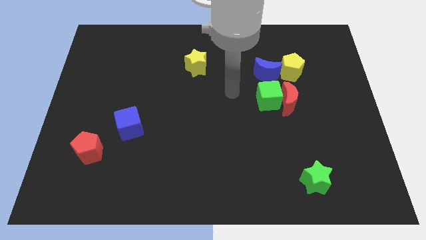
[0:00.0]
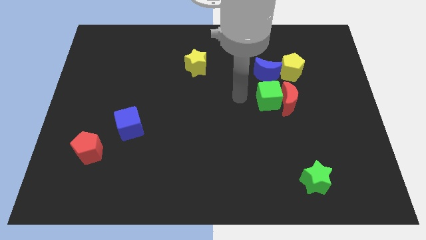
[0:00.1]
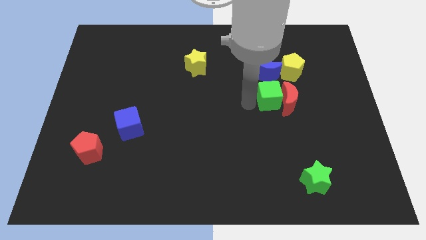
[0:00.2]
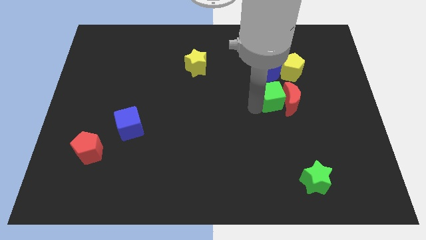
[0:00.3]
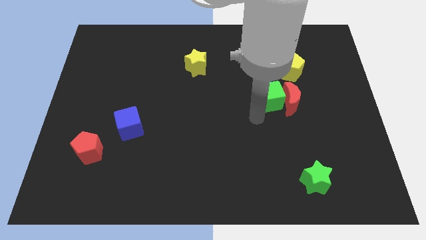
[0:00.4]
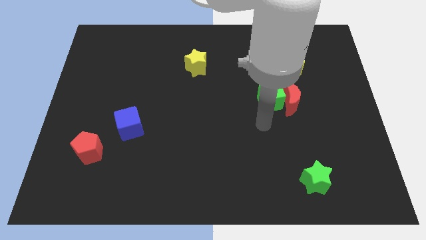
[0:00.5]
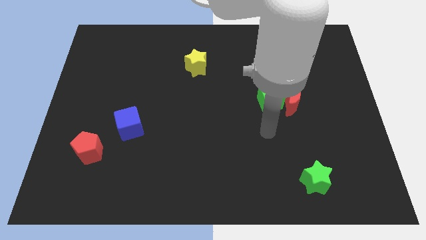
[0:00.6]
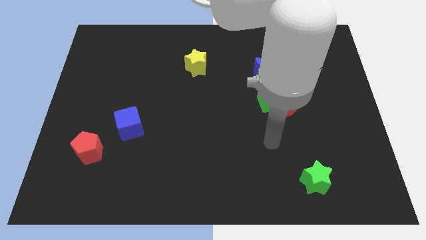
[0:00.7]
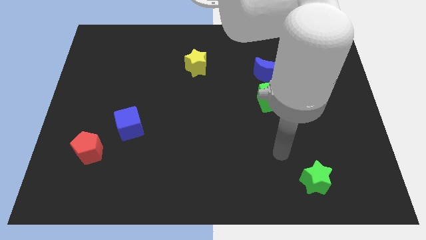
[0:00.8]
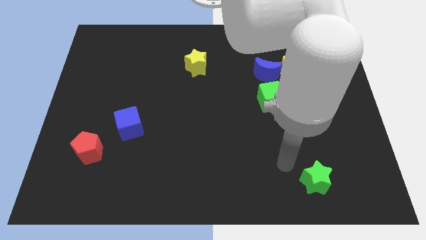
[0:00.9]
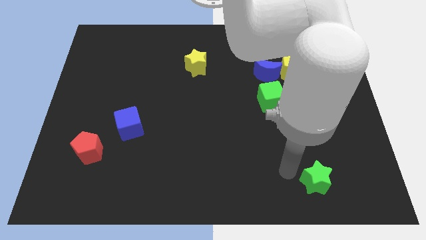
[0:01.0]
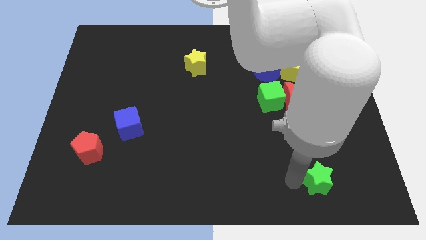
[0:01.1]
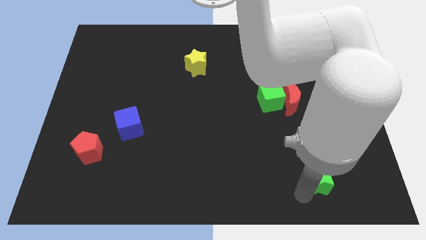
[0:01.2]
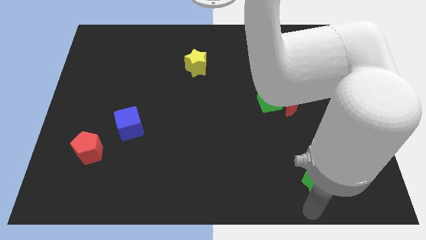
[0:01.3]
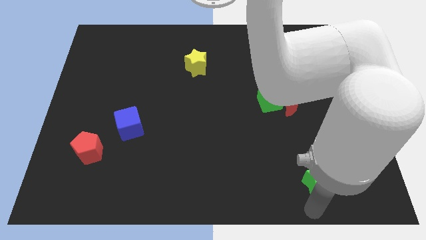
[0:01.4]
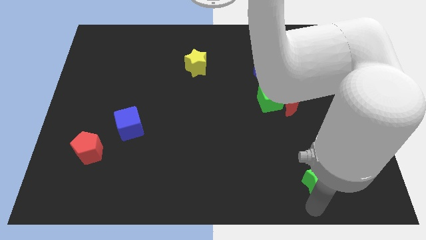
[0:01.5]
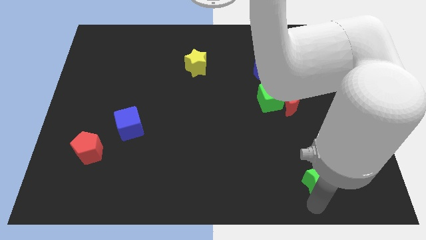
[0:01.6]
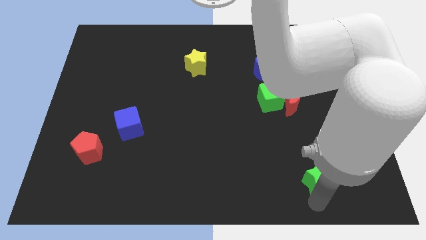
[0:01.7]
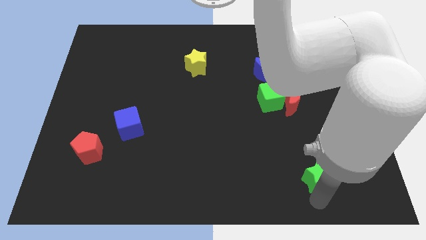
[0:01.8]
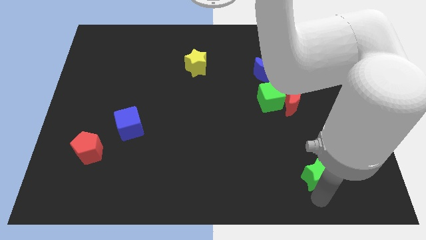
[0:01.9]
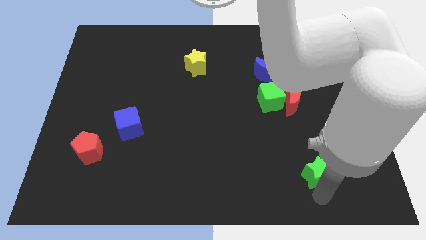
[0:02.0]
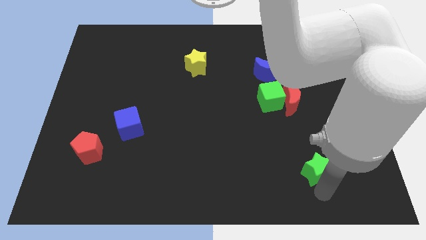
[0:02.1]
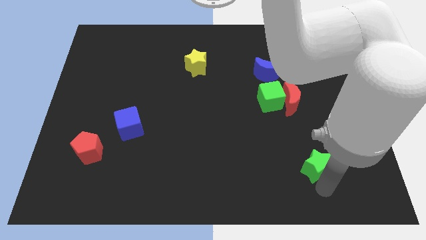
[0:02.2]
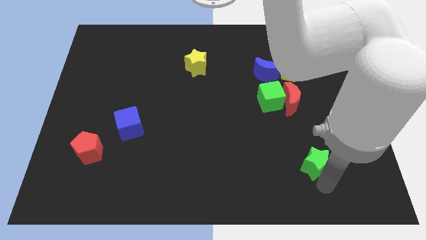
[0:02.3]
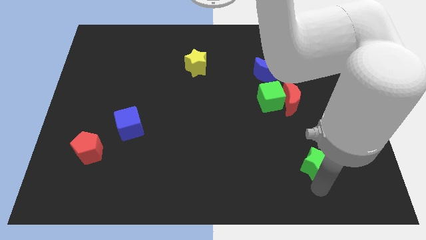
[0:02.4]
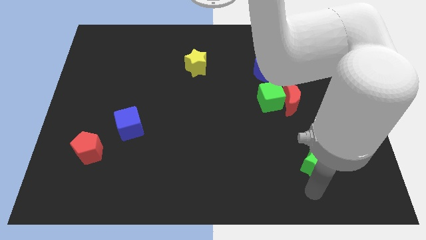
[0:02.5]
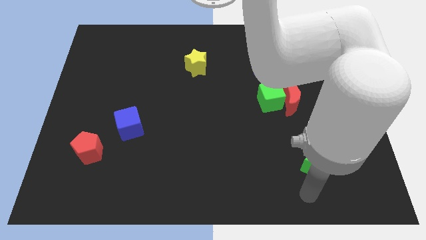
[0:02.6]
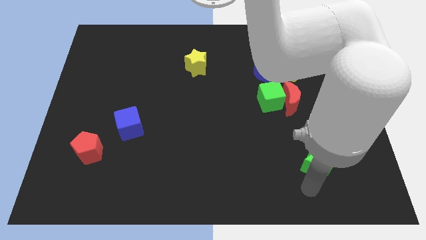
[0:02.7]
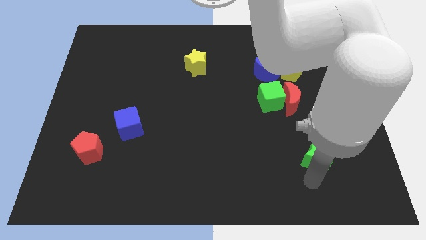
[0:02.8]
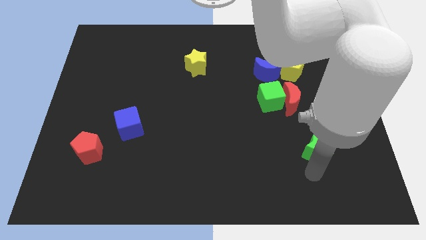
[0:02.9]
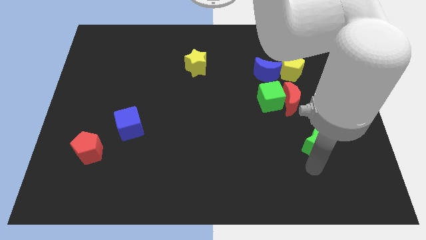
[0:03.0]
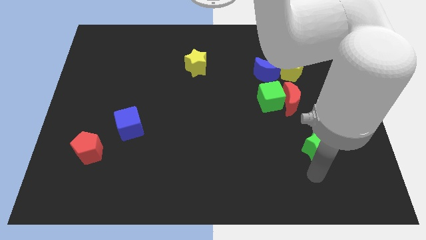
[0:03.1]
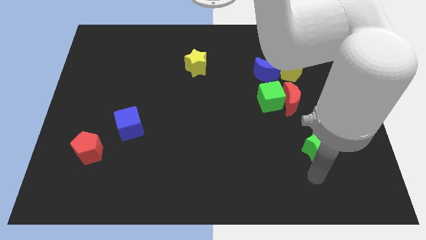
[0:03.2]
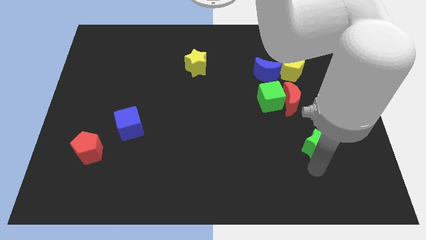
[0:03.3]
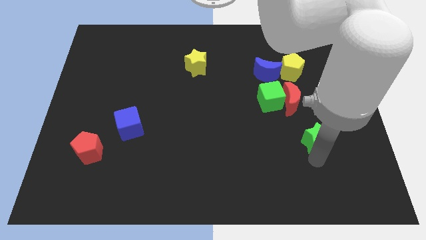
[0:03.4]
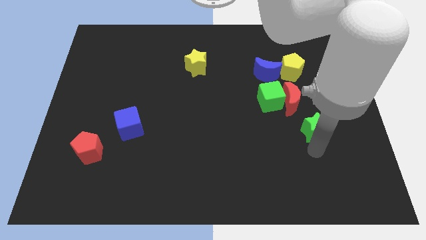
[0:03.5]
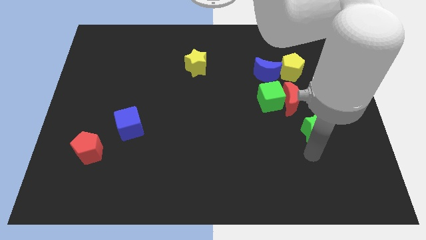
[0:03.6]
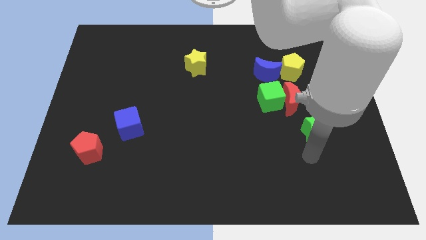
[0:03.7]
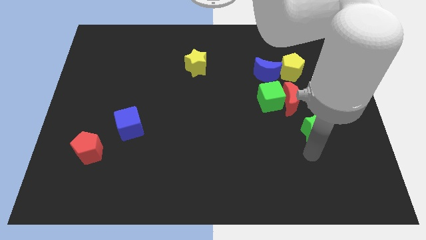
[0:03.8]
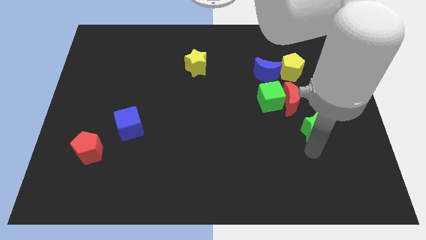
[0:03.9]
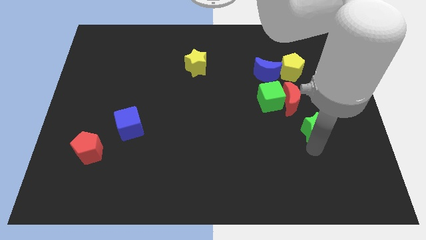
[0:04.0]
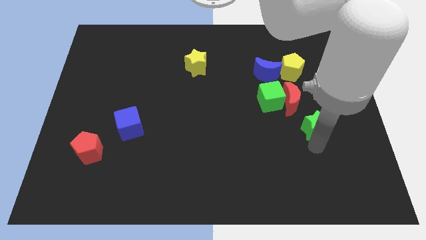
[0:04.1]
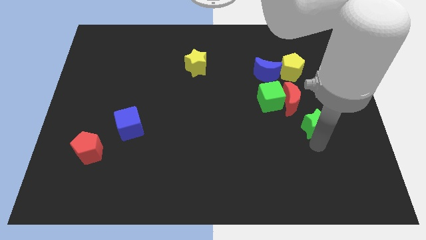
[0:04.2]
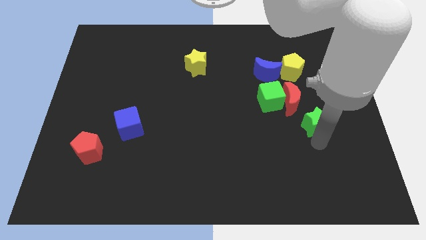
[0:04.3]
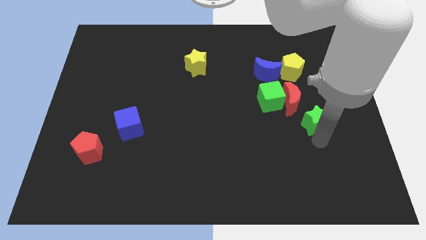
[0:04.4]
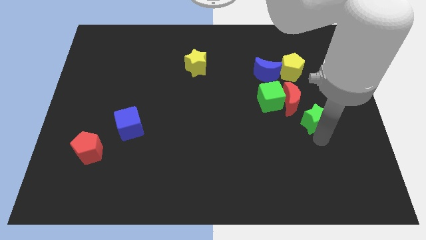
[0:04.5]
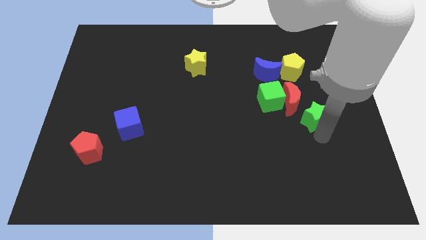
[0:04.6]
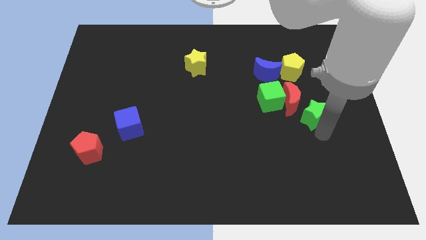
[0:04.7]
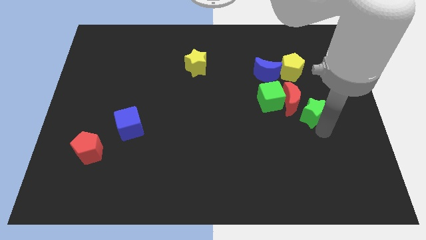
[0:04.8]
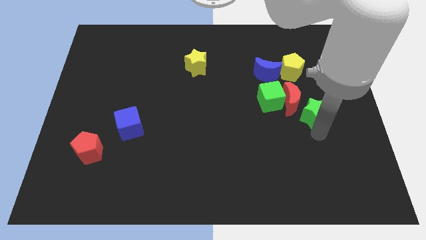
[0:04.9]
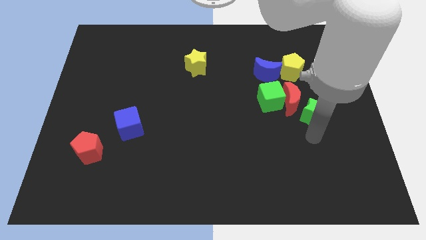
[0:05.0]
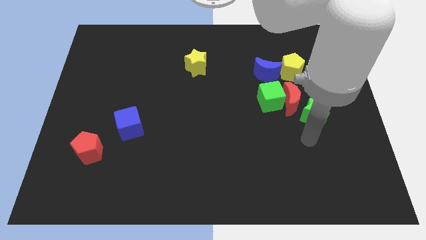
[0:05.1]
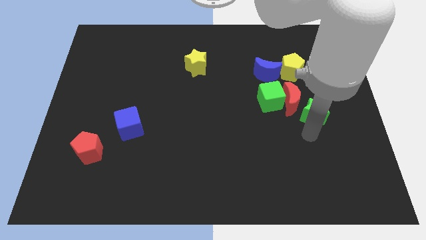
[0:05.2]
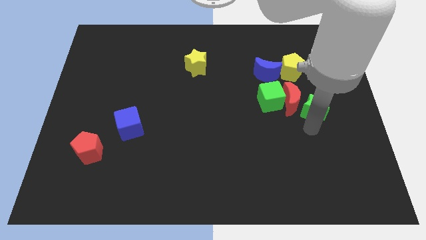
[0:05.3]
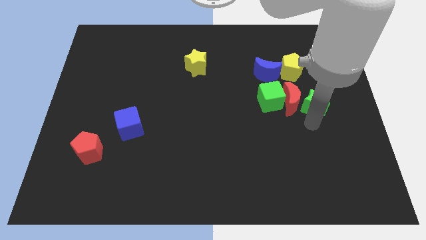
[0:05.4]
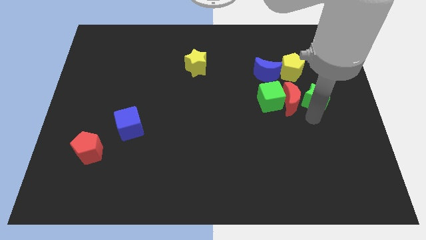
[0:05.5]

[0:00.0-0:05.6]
move the green star to the bottom right side of the yellow pentagon

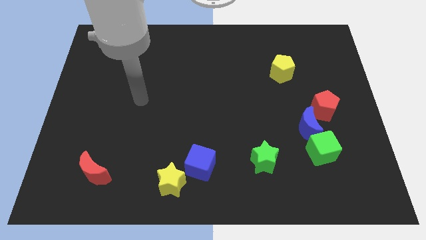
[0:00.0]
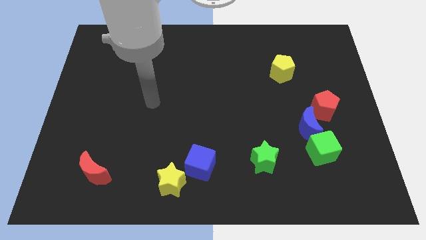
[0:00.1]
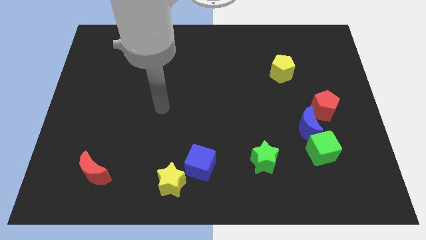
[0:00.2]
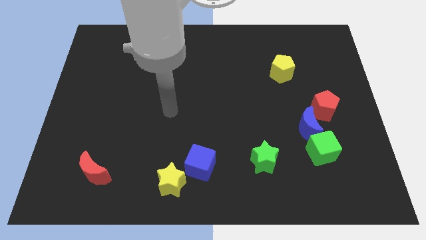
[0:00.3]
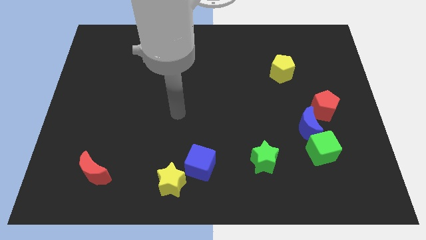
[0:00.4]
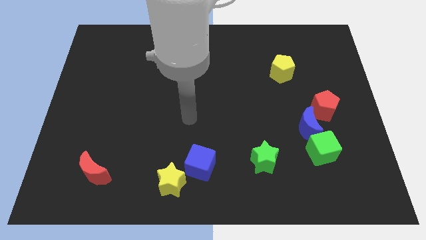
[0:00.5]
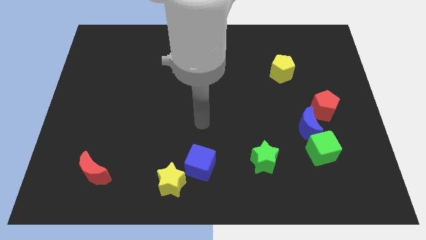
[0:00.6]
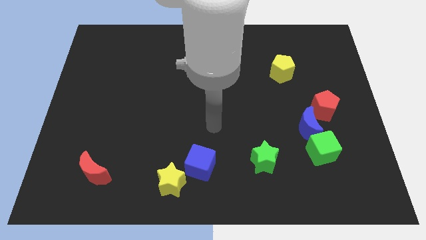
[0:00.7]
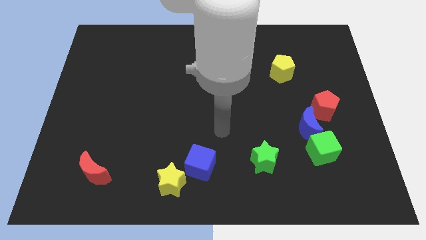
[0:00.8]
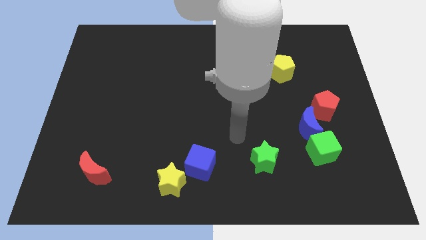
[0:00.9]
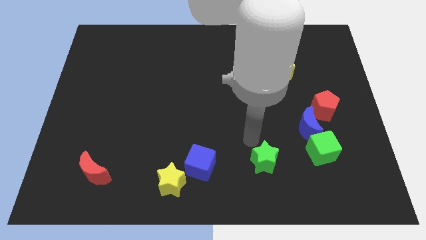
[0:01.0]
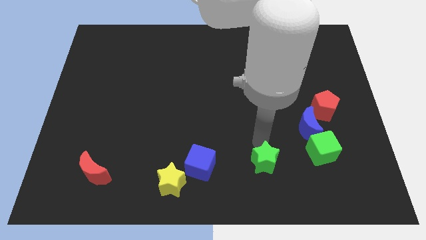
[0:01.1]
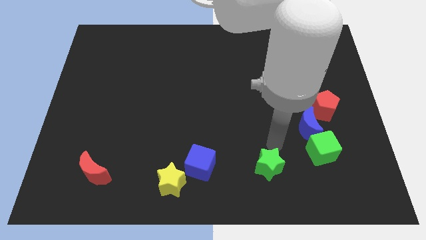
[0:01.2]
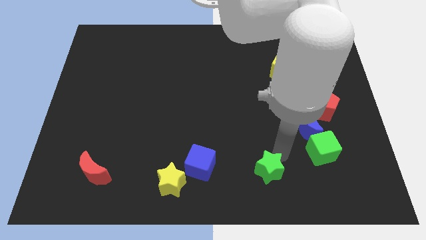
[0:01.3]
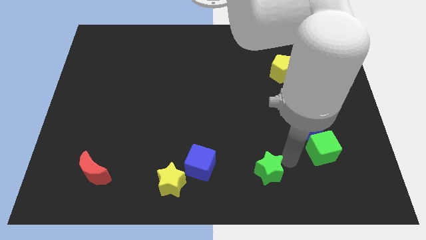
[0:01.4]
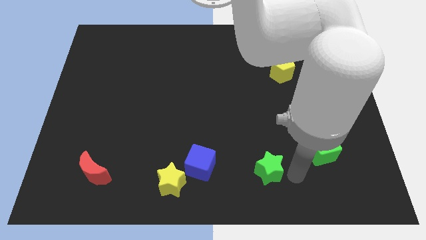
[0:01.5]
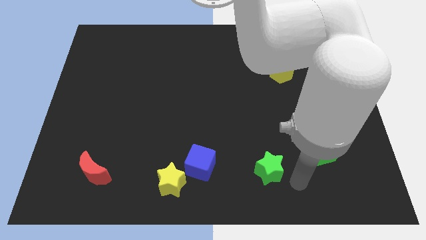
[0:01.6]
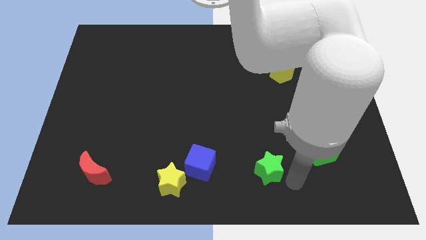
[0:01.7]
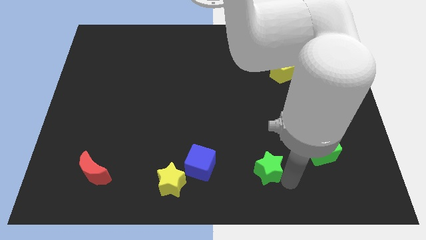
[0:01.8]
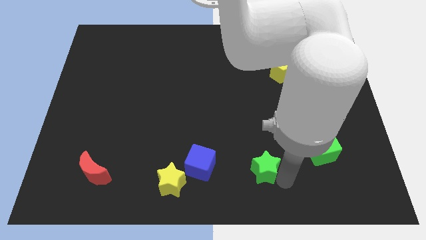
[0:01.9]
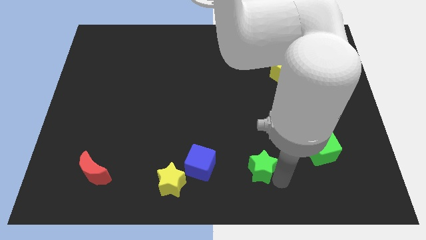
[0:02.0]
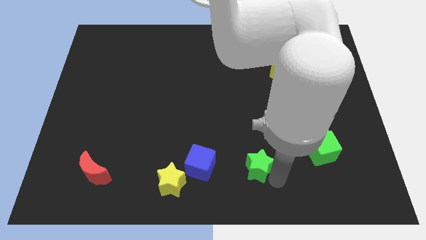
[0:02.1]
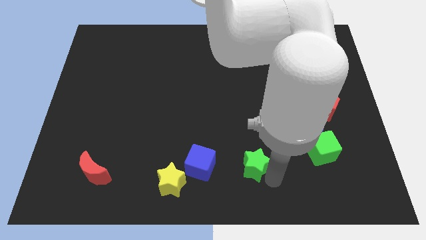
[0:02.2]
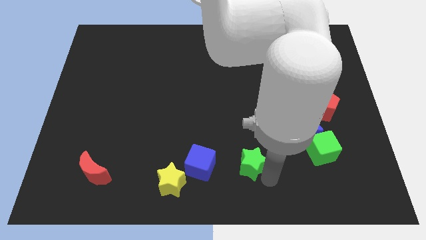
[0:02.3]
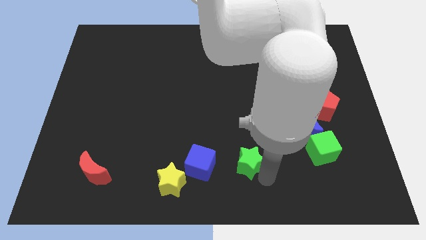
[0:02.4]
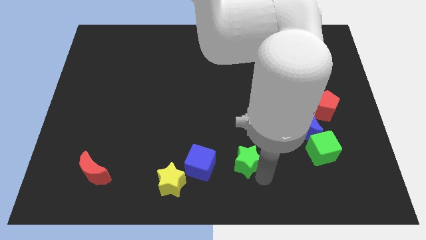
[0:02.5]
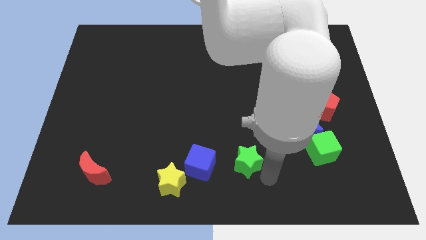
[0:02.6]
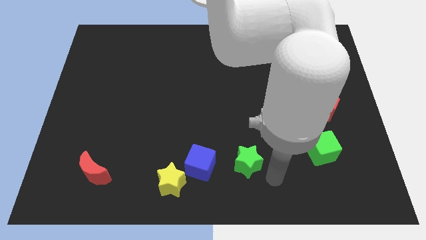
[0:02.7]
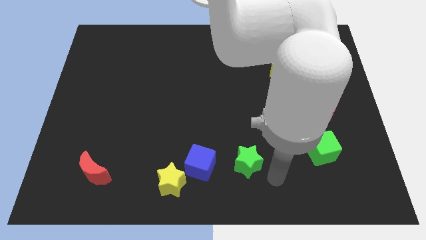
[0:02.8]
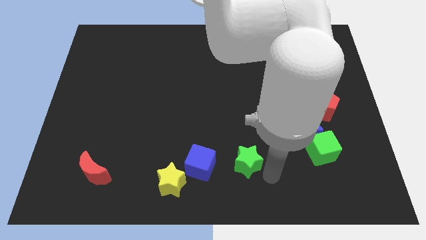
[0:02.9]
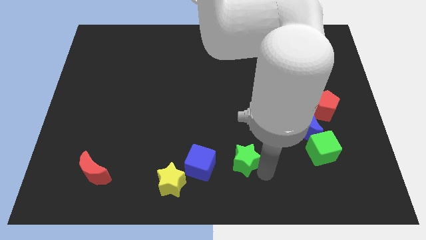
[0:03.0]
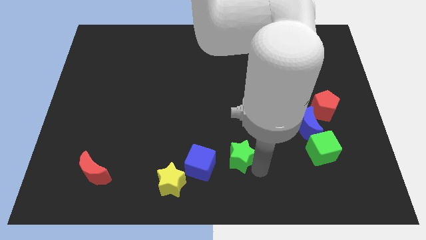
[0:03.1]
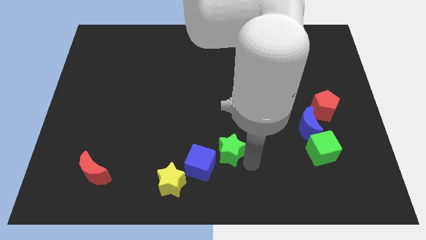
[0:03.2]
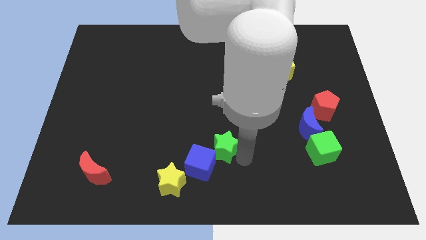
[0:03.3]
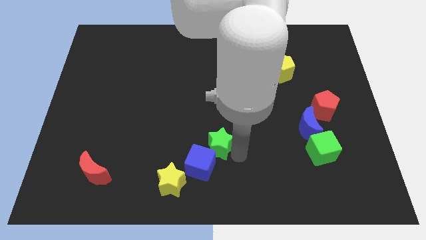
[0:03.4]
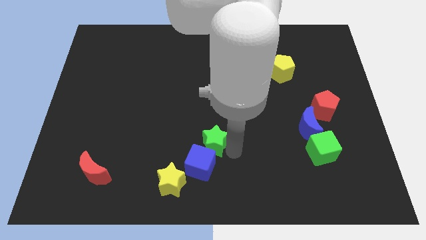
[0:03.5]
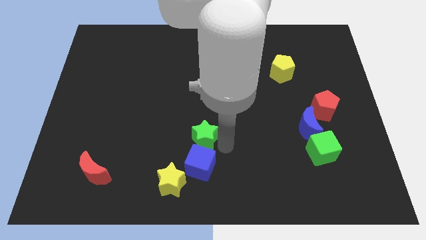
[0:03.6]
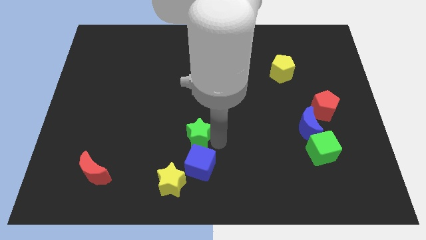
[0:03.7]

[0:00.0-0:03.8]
push the green star to the top left of the blue cube
